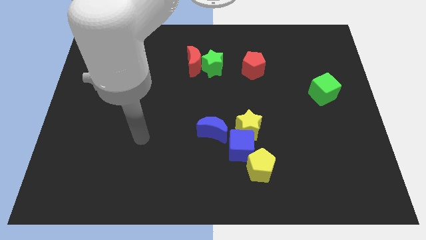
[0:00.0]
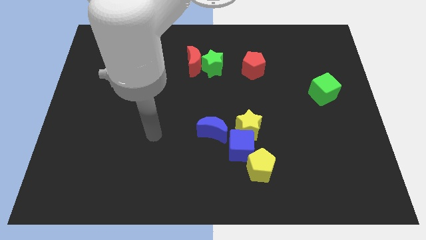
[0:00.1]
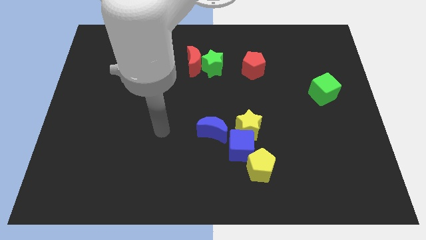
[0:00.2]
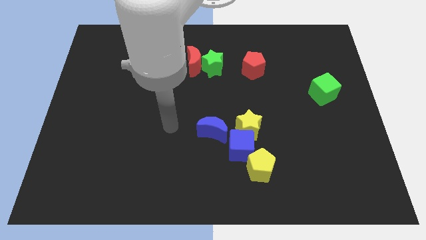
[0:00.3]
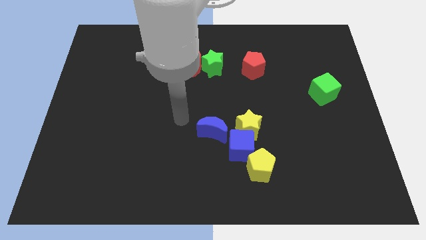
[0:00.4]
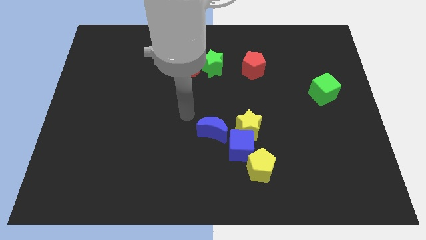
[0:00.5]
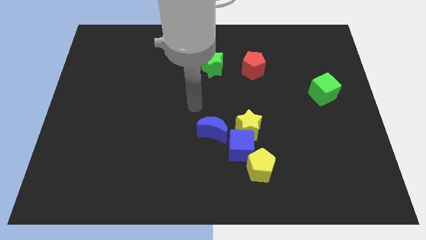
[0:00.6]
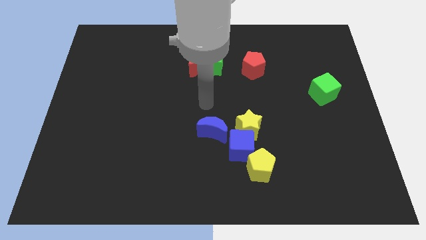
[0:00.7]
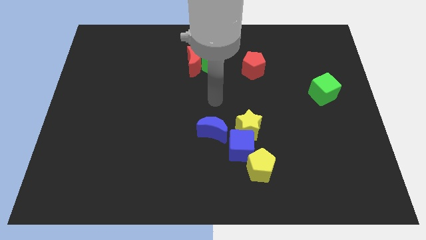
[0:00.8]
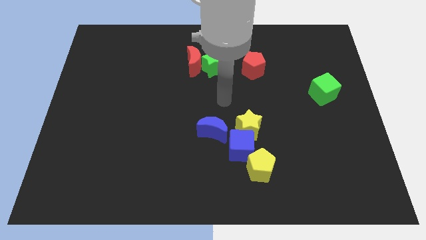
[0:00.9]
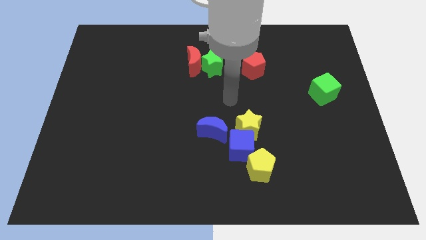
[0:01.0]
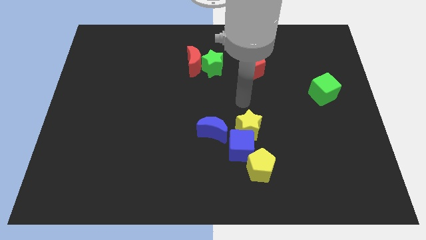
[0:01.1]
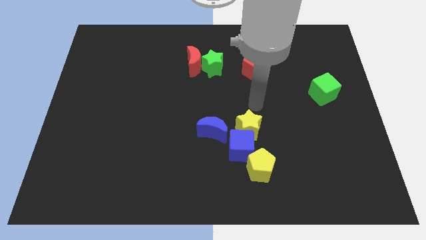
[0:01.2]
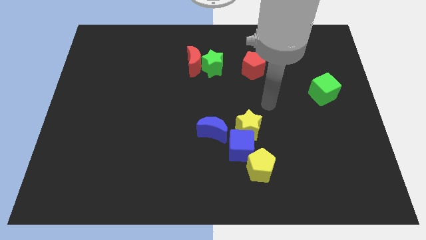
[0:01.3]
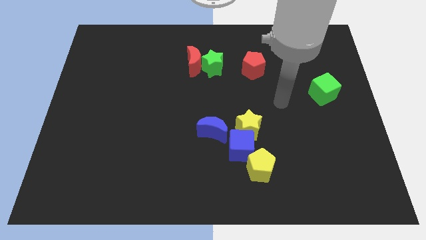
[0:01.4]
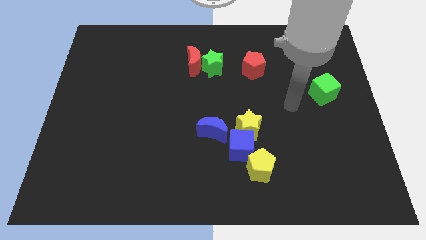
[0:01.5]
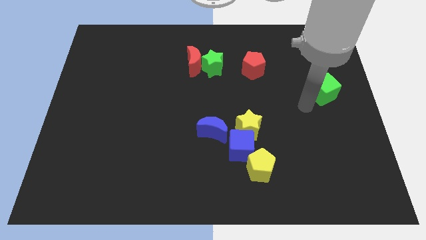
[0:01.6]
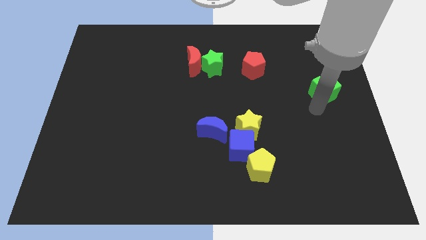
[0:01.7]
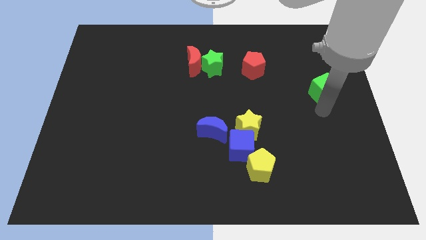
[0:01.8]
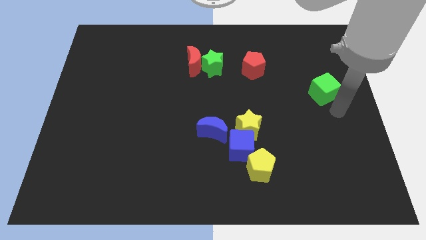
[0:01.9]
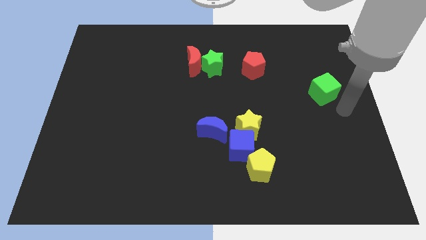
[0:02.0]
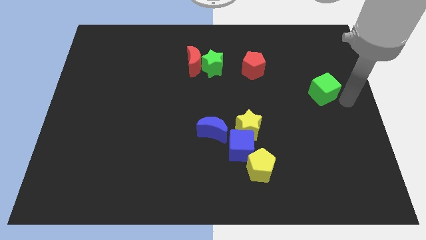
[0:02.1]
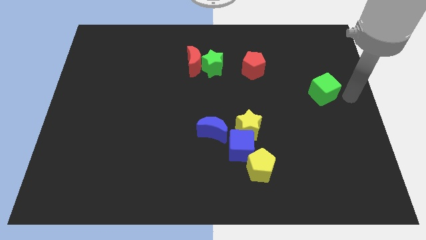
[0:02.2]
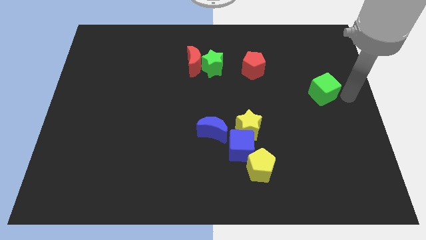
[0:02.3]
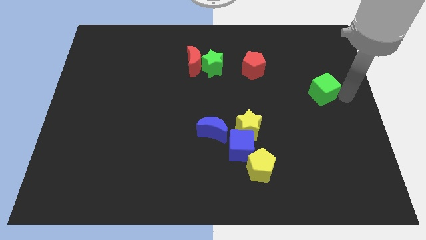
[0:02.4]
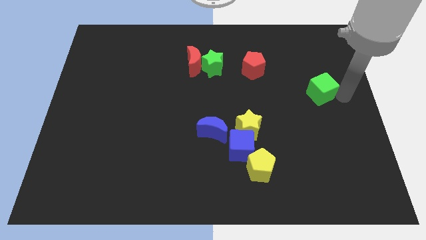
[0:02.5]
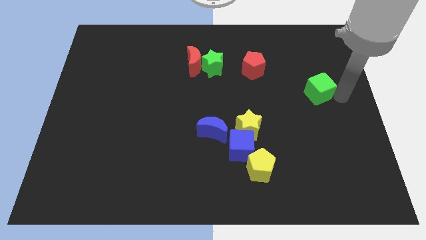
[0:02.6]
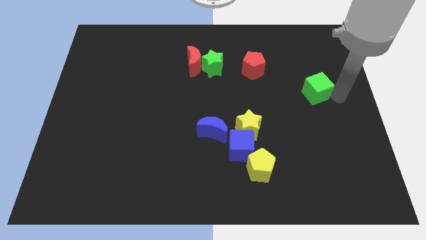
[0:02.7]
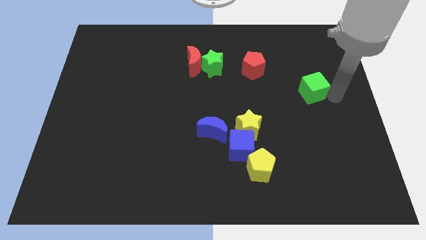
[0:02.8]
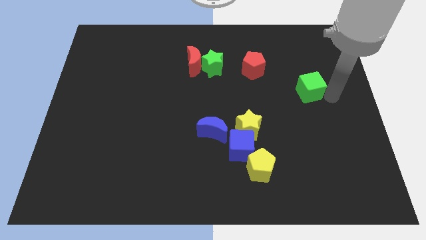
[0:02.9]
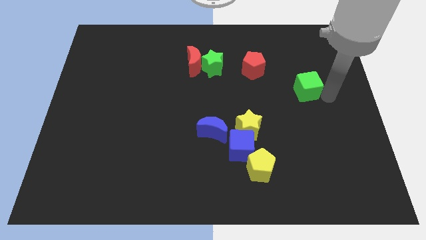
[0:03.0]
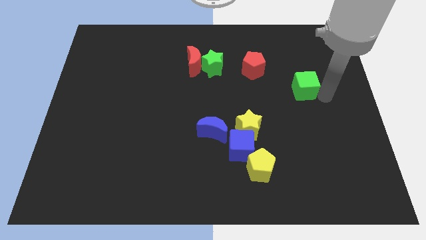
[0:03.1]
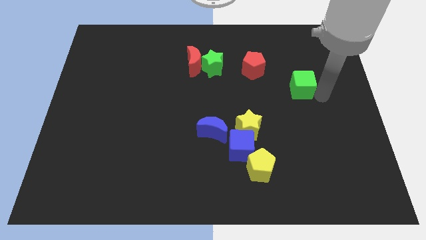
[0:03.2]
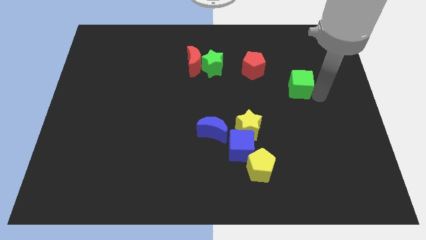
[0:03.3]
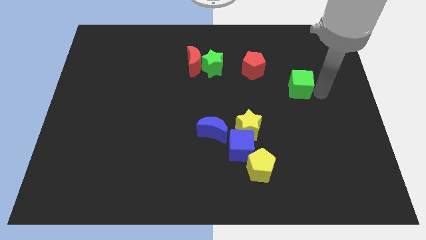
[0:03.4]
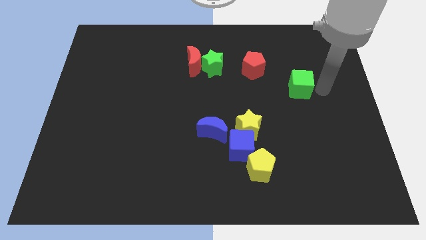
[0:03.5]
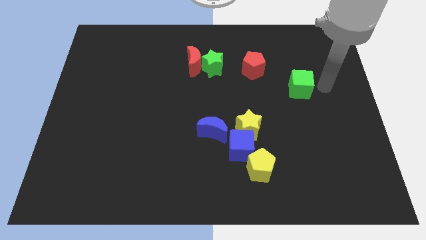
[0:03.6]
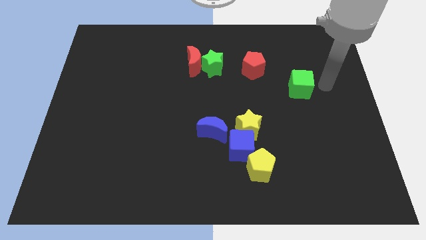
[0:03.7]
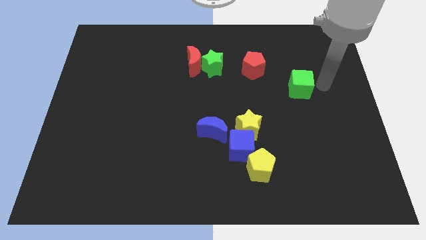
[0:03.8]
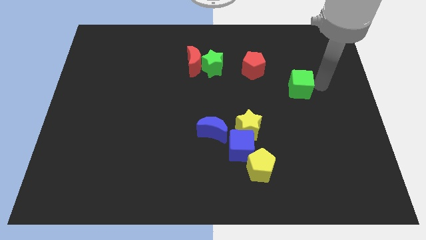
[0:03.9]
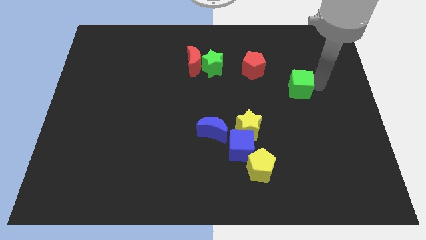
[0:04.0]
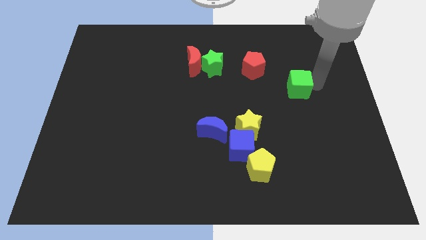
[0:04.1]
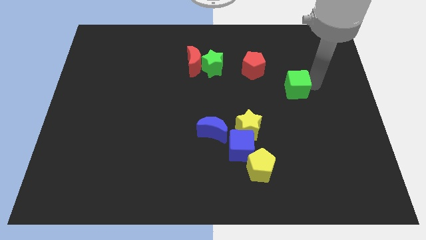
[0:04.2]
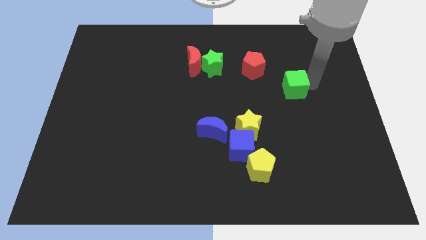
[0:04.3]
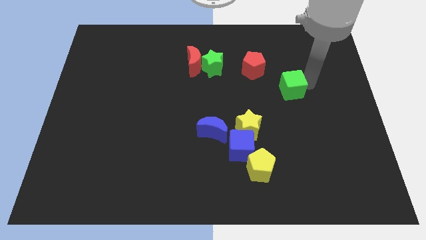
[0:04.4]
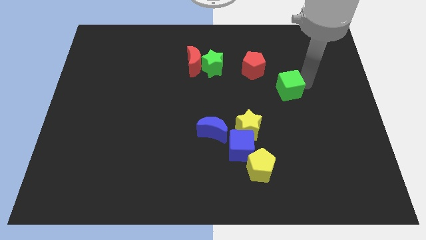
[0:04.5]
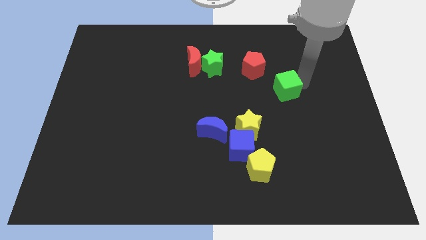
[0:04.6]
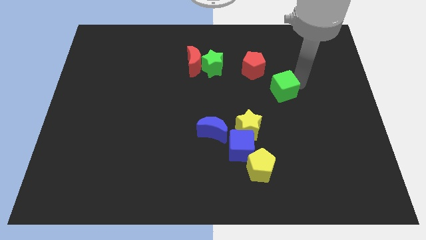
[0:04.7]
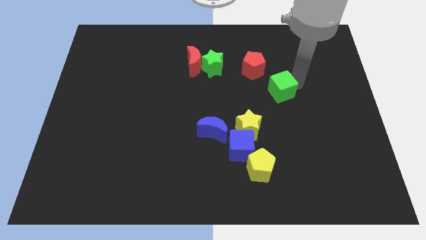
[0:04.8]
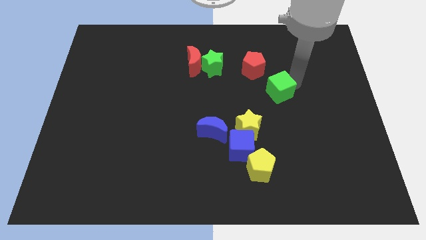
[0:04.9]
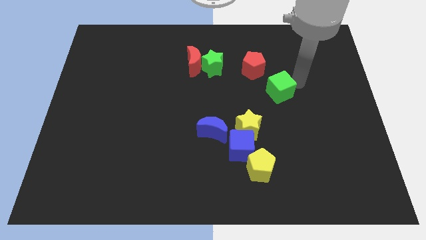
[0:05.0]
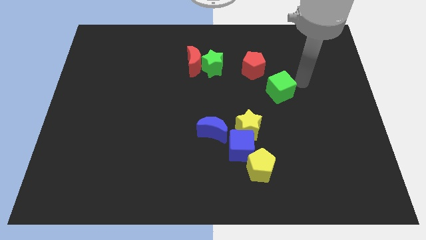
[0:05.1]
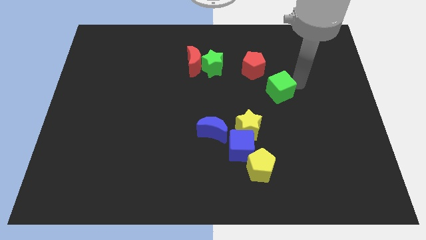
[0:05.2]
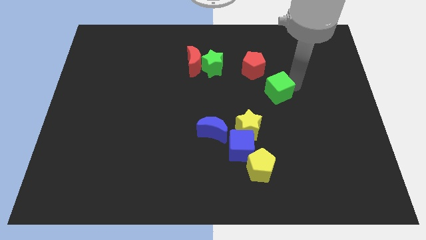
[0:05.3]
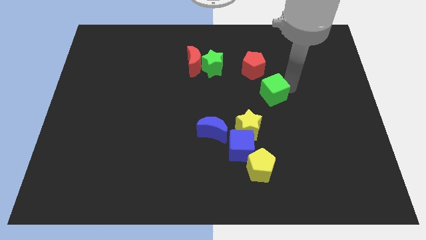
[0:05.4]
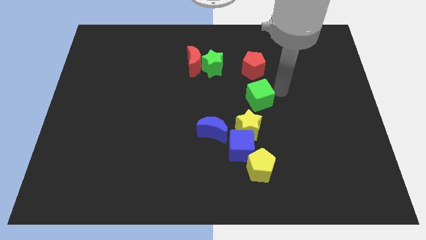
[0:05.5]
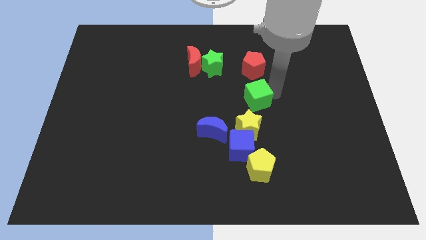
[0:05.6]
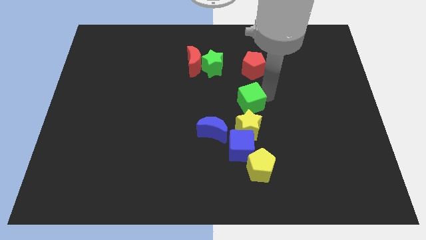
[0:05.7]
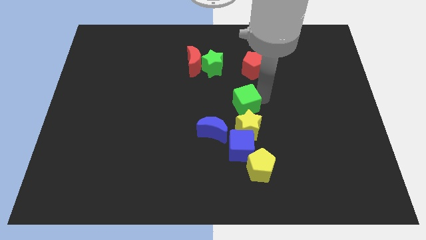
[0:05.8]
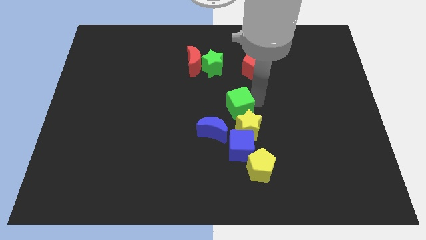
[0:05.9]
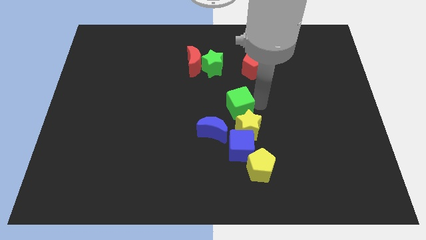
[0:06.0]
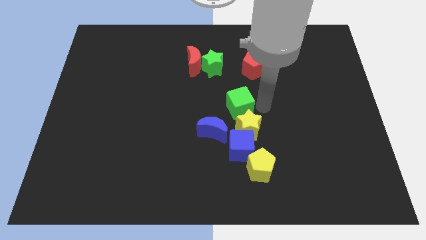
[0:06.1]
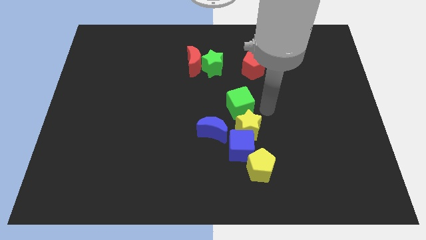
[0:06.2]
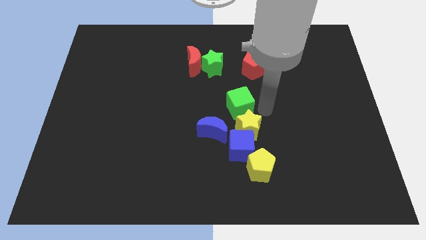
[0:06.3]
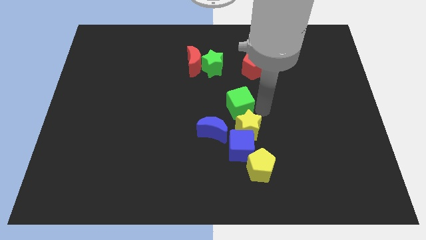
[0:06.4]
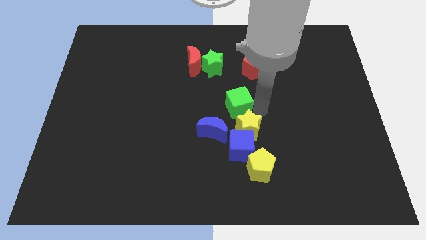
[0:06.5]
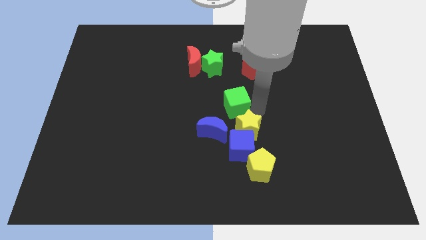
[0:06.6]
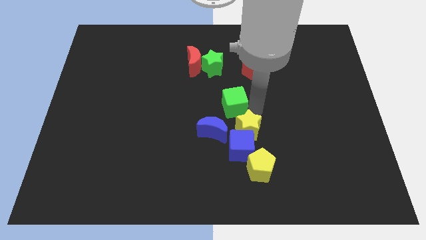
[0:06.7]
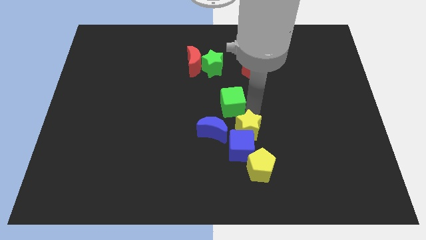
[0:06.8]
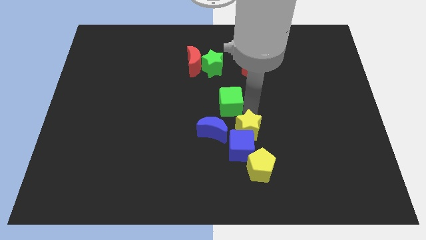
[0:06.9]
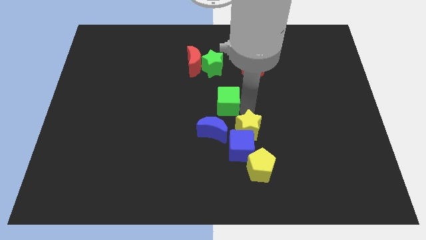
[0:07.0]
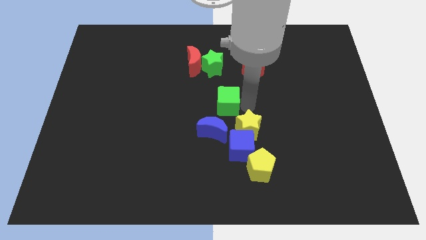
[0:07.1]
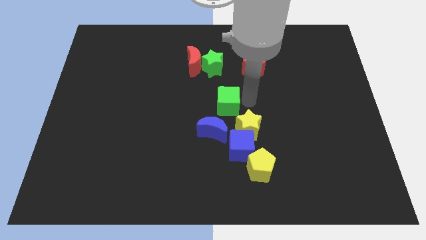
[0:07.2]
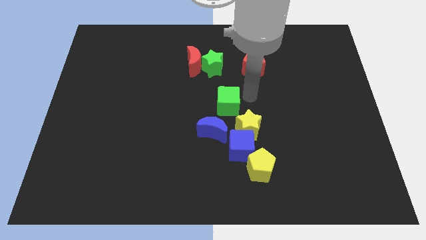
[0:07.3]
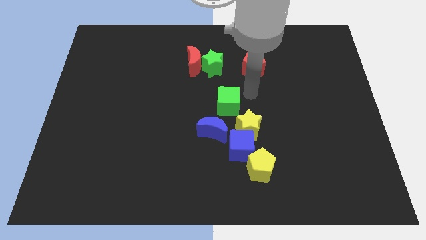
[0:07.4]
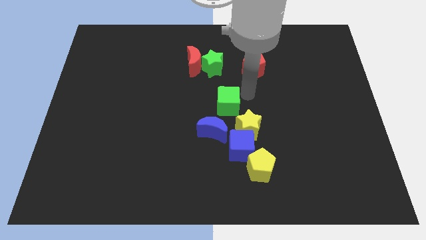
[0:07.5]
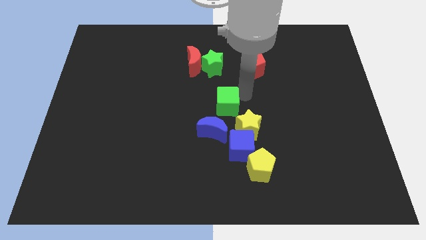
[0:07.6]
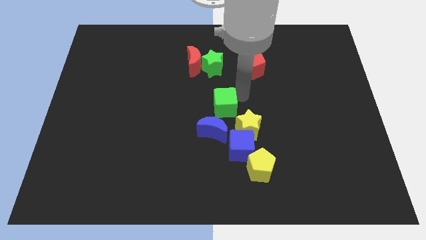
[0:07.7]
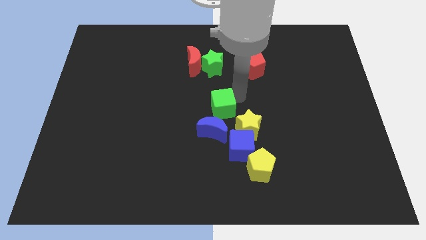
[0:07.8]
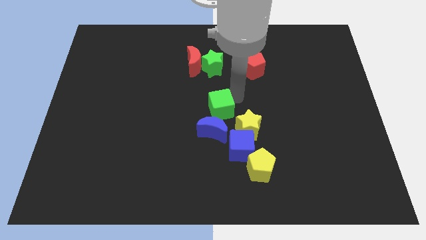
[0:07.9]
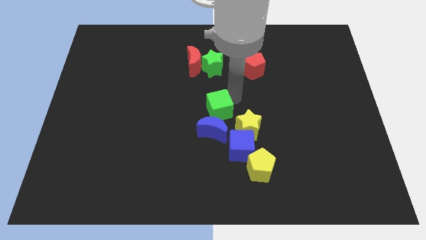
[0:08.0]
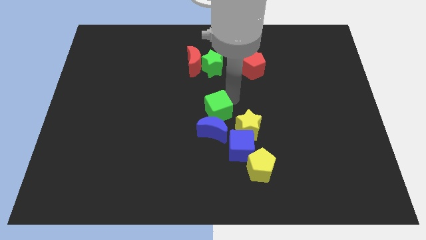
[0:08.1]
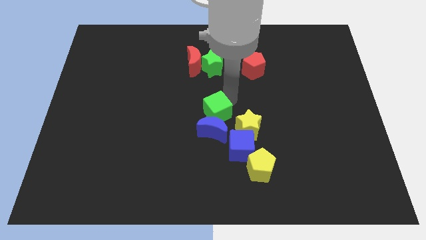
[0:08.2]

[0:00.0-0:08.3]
slide the green cube to the left side of the yellow star
